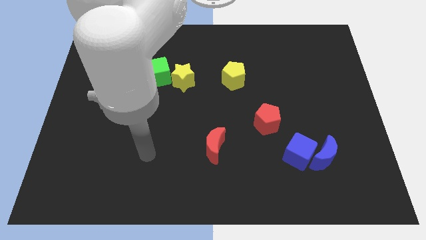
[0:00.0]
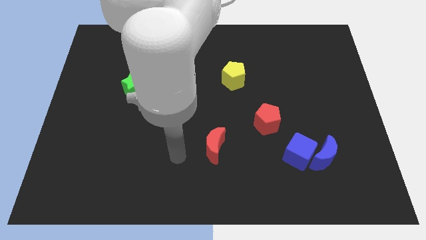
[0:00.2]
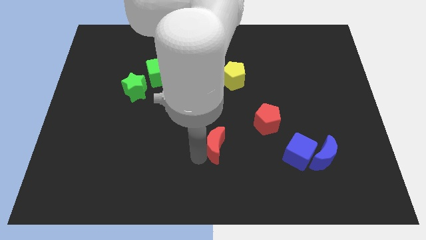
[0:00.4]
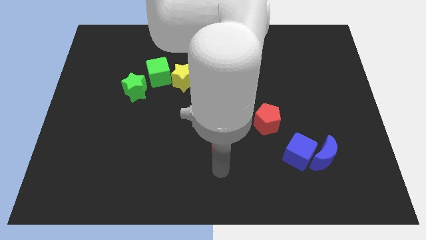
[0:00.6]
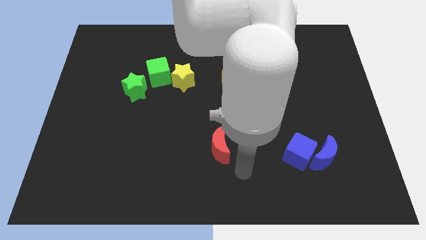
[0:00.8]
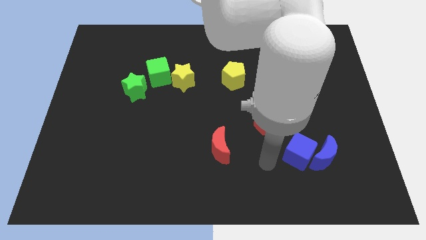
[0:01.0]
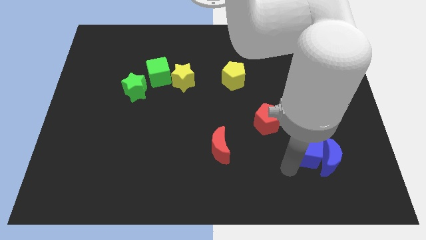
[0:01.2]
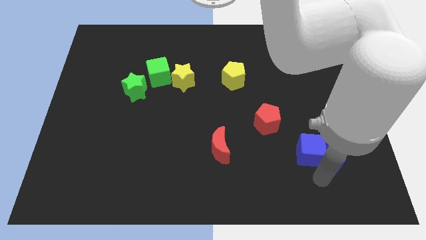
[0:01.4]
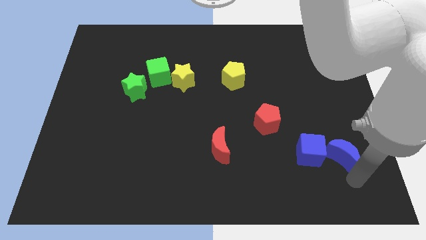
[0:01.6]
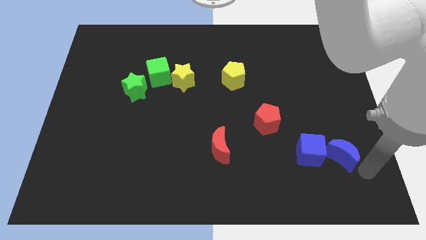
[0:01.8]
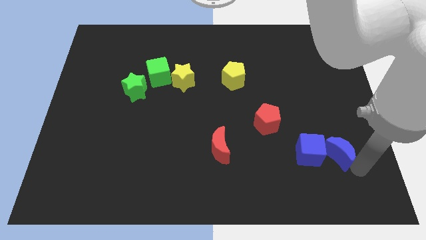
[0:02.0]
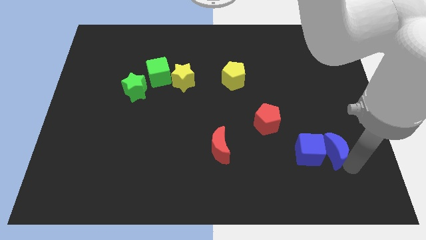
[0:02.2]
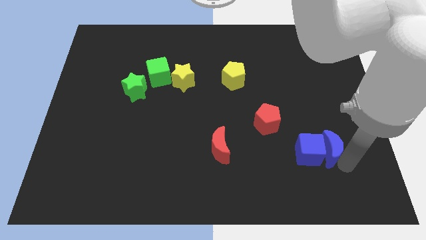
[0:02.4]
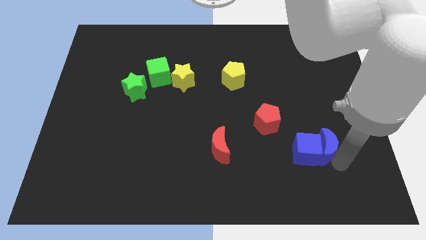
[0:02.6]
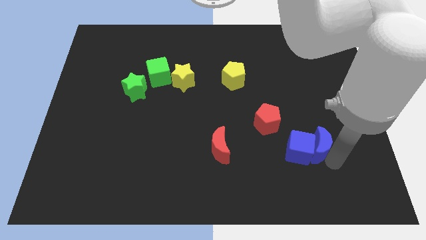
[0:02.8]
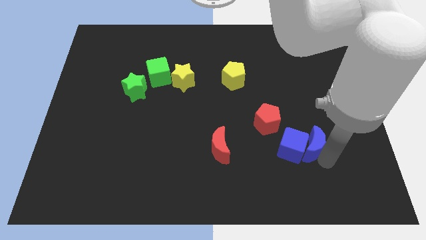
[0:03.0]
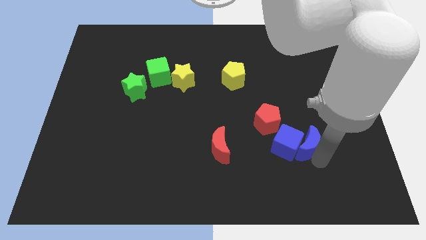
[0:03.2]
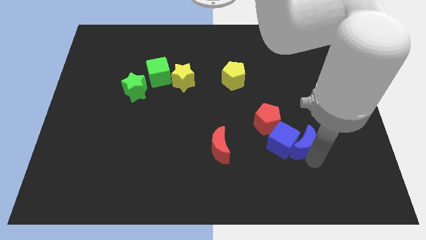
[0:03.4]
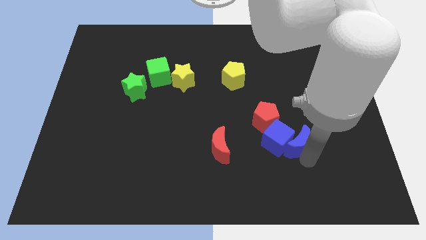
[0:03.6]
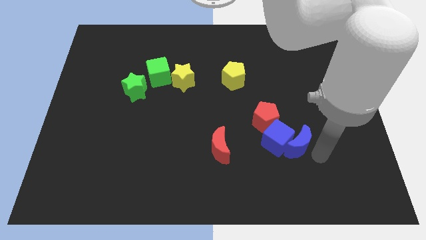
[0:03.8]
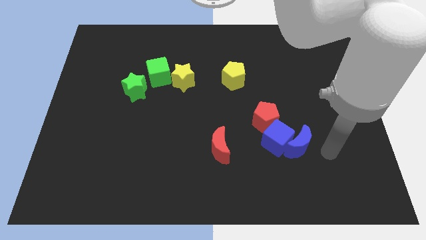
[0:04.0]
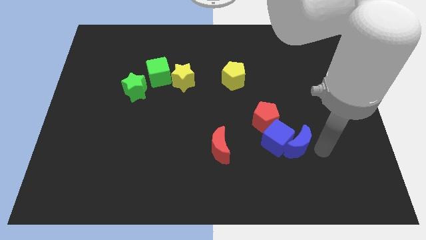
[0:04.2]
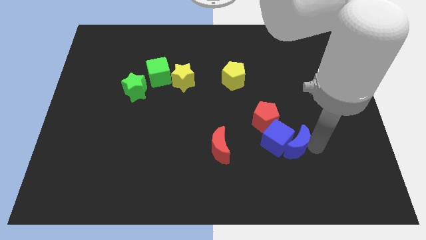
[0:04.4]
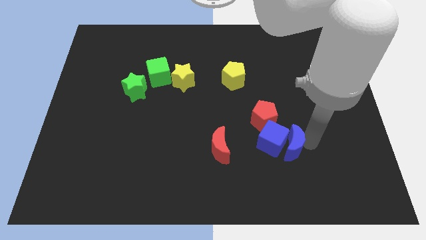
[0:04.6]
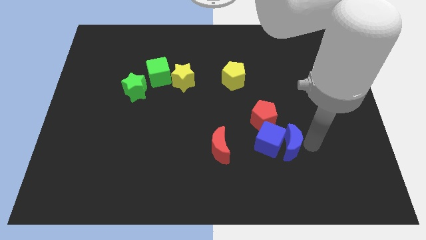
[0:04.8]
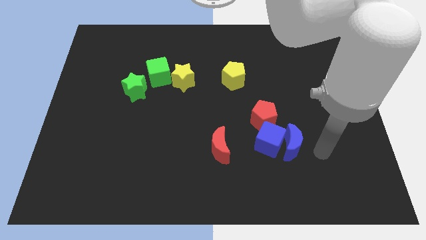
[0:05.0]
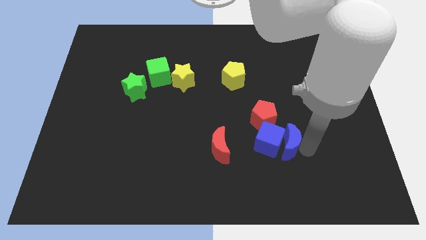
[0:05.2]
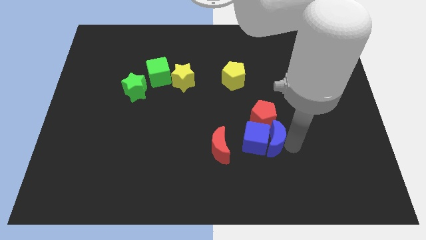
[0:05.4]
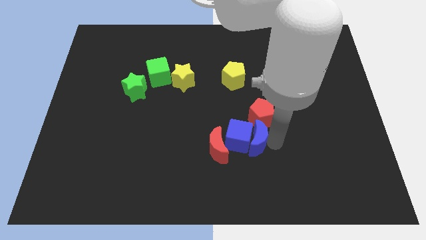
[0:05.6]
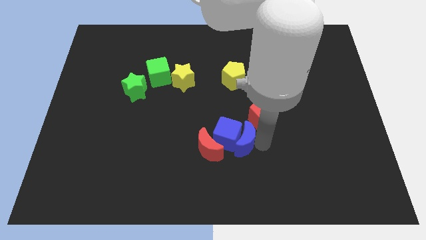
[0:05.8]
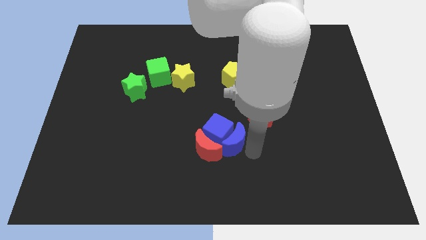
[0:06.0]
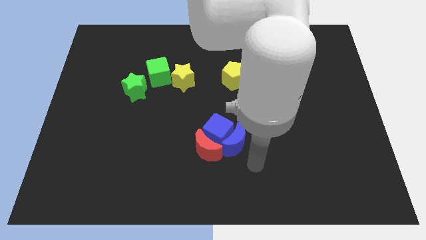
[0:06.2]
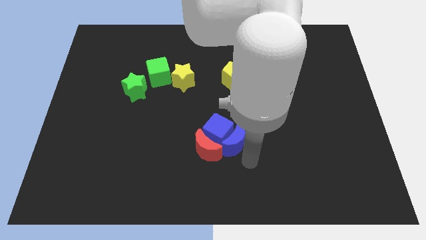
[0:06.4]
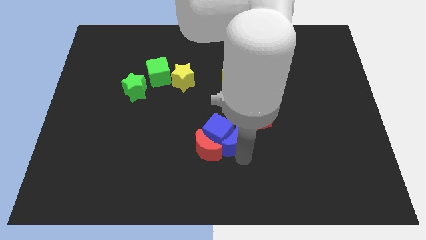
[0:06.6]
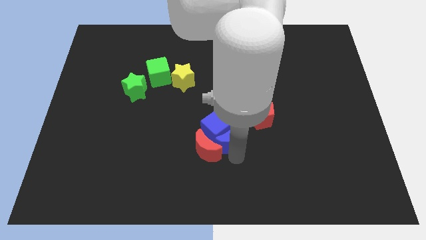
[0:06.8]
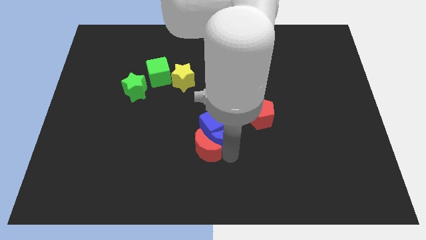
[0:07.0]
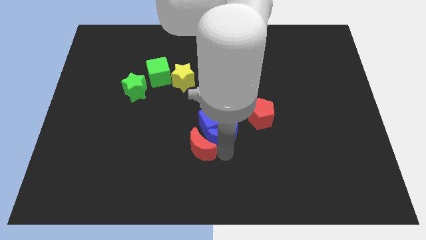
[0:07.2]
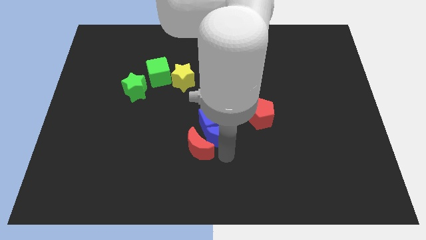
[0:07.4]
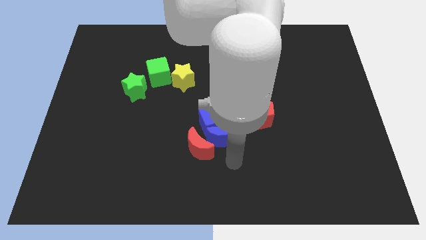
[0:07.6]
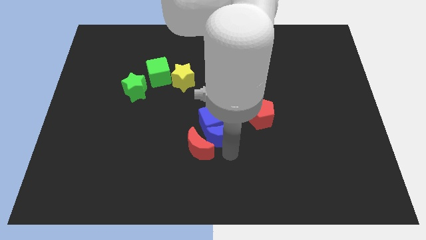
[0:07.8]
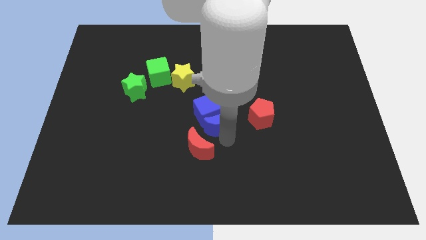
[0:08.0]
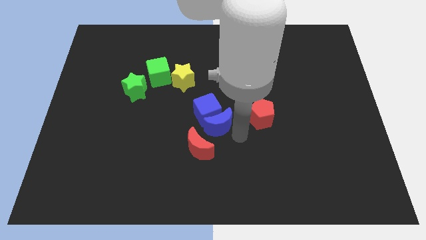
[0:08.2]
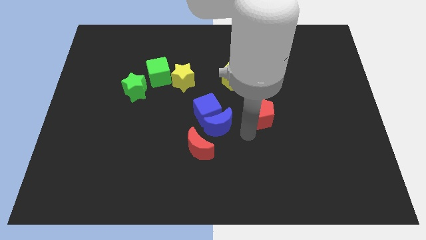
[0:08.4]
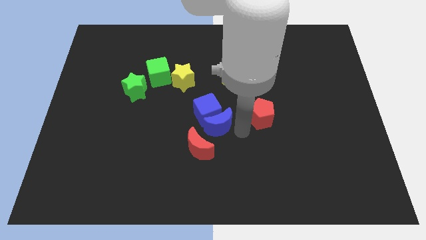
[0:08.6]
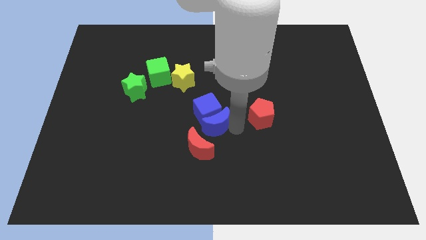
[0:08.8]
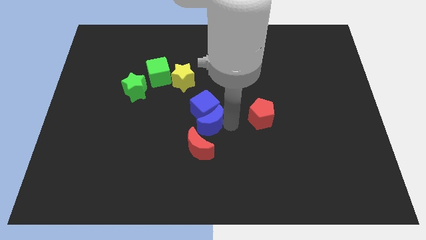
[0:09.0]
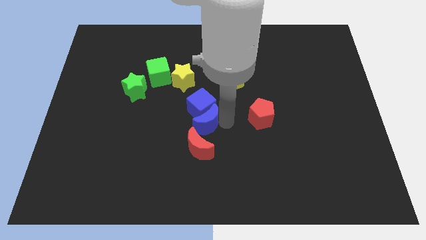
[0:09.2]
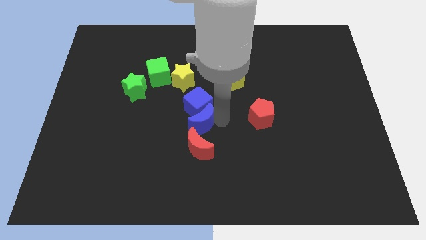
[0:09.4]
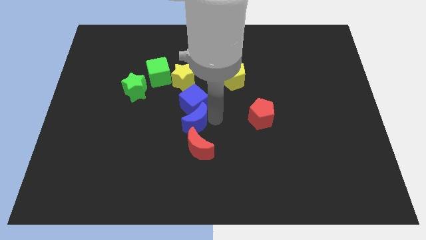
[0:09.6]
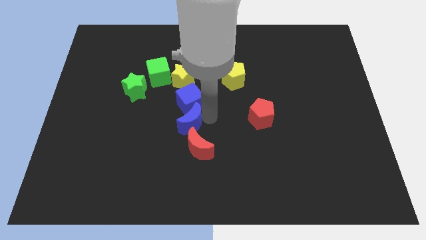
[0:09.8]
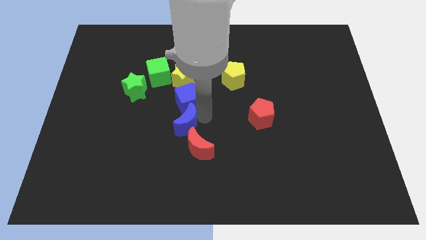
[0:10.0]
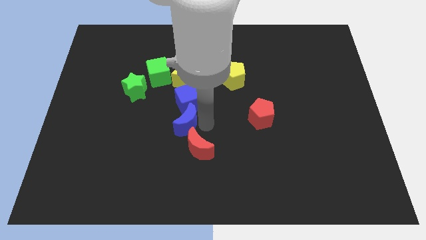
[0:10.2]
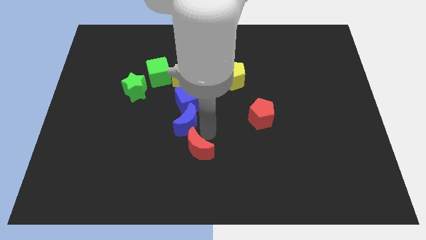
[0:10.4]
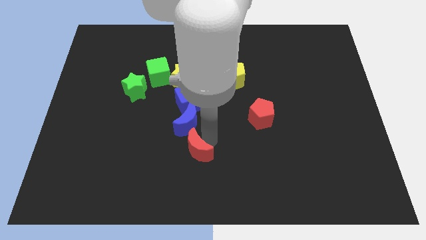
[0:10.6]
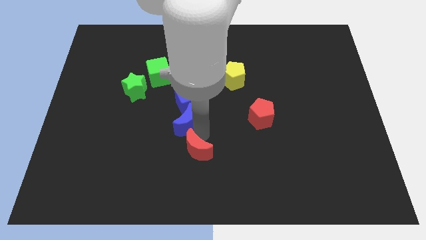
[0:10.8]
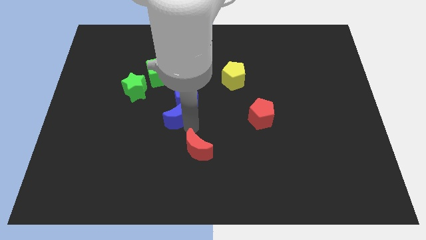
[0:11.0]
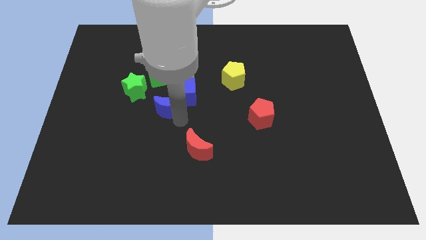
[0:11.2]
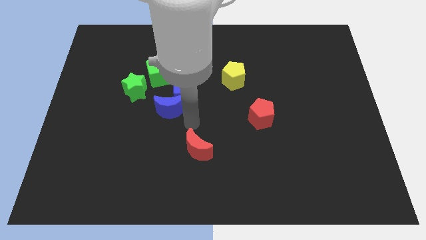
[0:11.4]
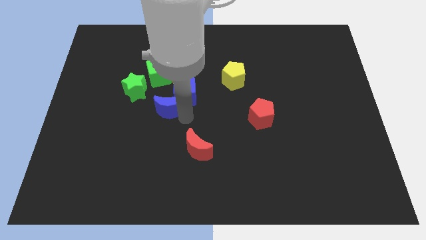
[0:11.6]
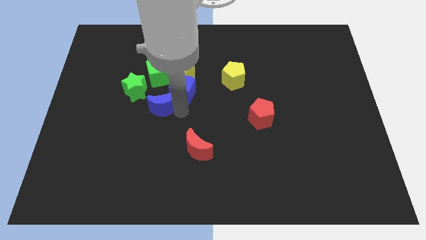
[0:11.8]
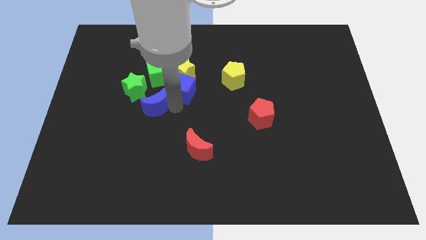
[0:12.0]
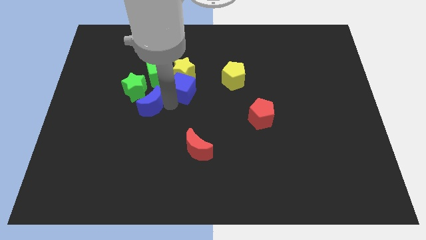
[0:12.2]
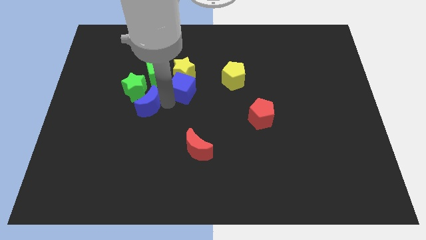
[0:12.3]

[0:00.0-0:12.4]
move the blue moon next to the green star

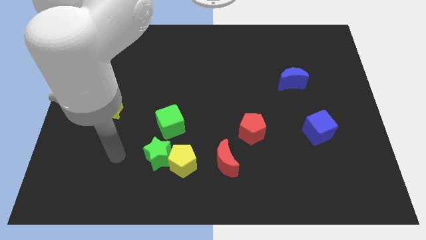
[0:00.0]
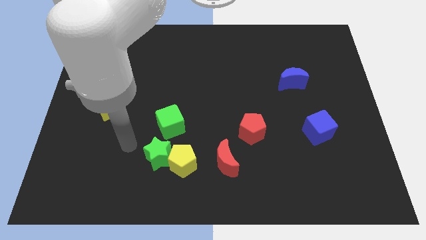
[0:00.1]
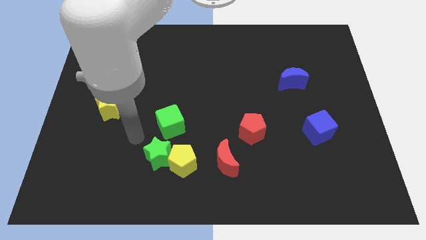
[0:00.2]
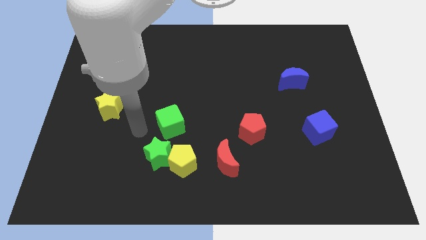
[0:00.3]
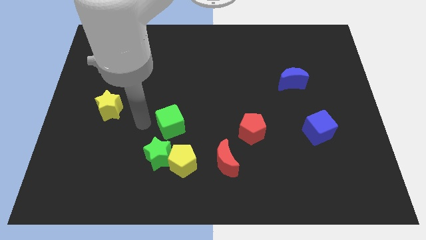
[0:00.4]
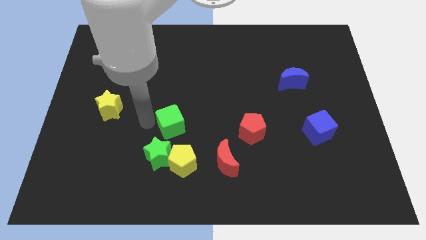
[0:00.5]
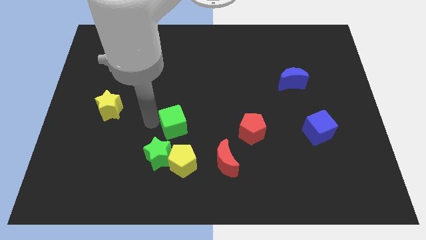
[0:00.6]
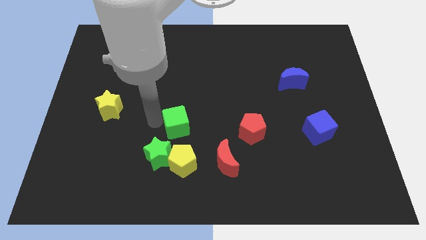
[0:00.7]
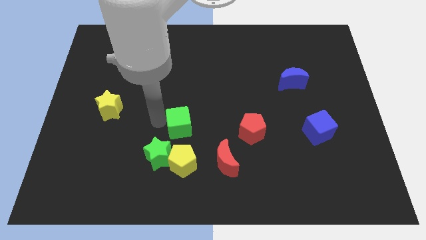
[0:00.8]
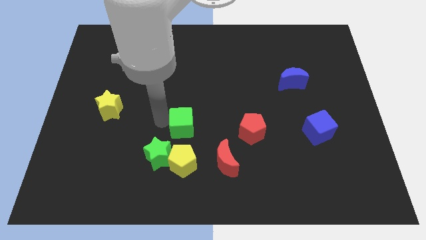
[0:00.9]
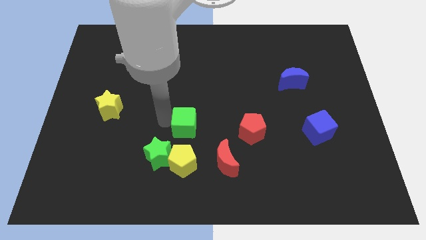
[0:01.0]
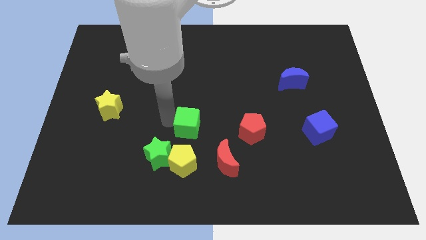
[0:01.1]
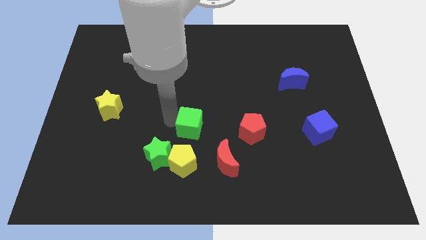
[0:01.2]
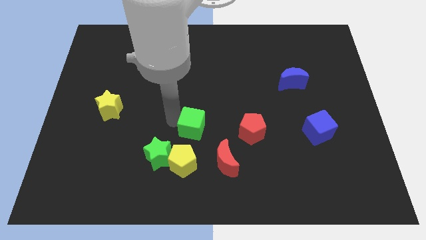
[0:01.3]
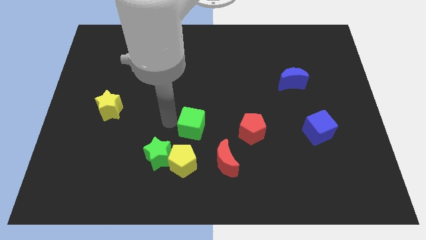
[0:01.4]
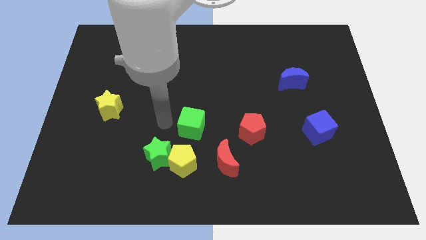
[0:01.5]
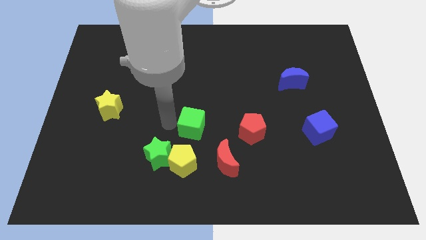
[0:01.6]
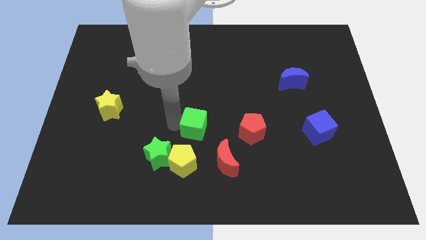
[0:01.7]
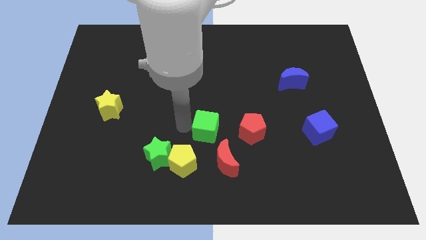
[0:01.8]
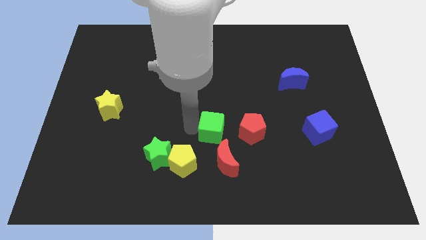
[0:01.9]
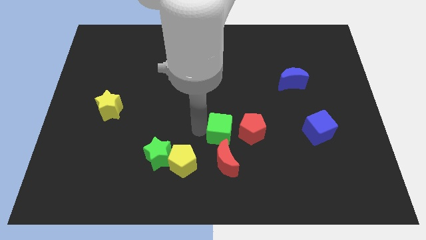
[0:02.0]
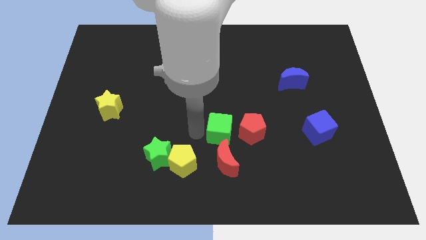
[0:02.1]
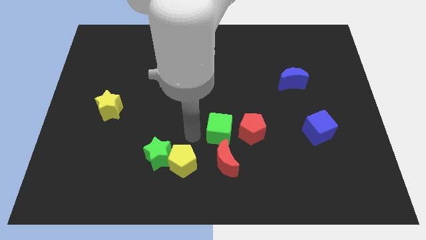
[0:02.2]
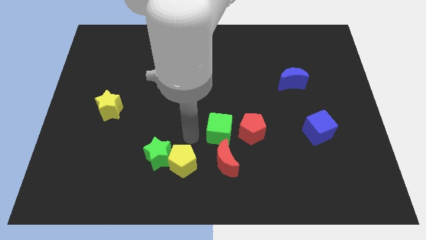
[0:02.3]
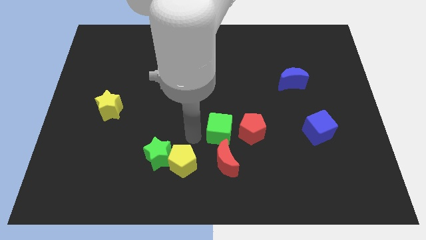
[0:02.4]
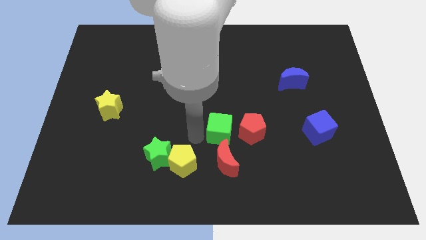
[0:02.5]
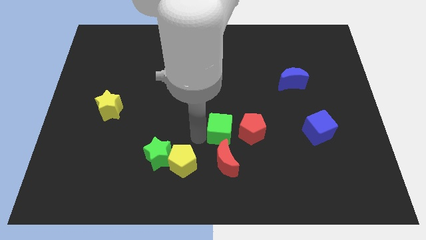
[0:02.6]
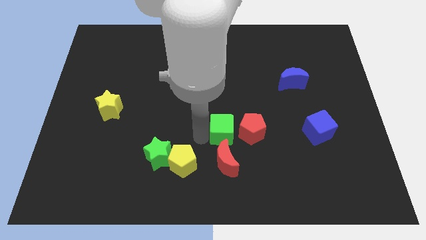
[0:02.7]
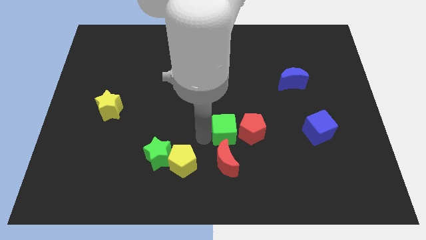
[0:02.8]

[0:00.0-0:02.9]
put the green cube close to the red pentagon
